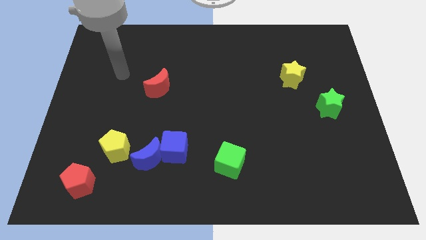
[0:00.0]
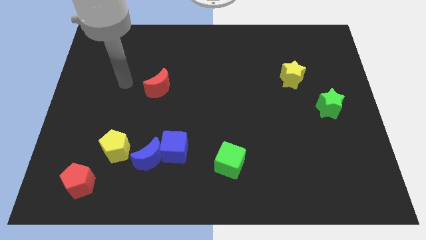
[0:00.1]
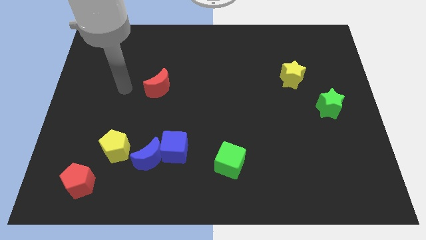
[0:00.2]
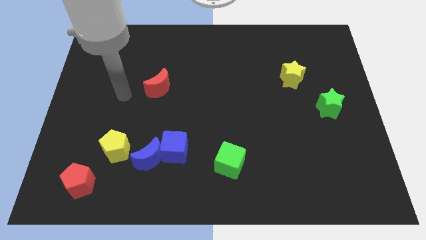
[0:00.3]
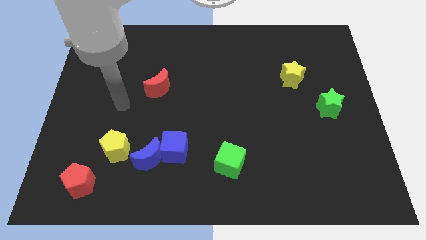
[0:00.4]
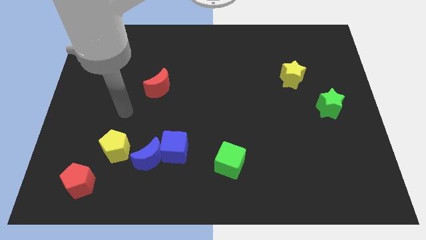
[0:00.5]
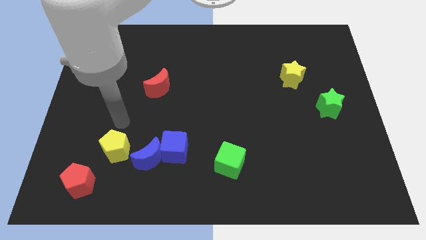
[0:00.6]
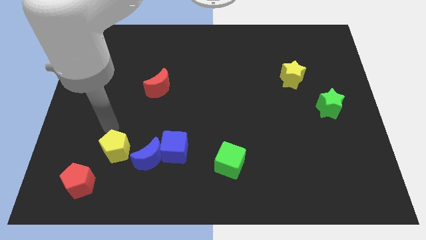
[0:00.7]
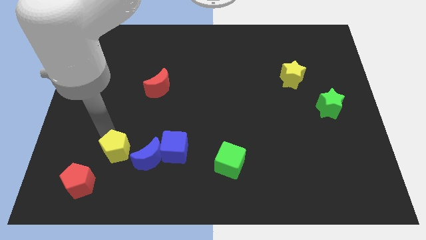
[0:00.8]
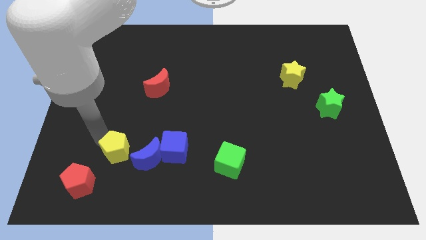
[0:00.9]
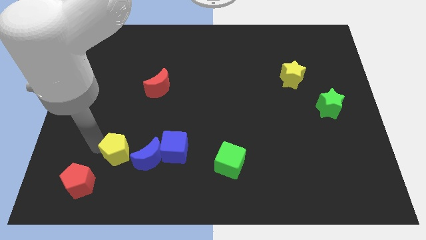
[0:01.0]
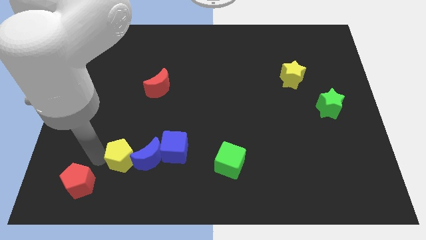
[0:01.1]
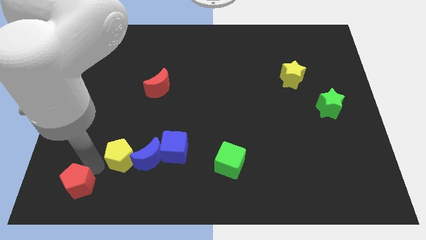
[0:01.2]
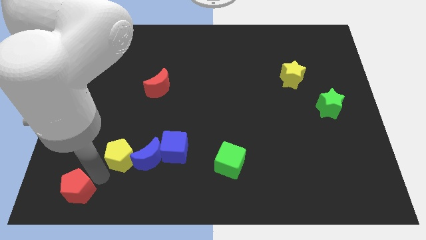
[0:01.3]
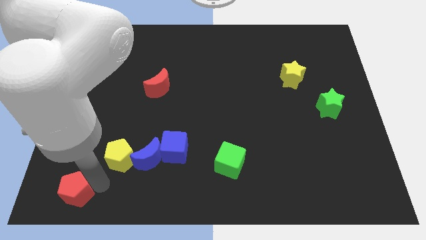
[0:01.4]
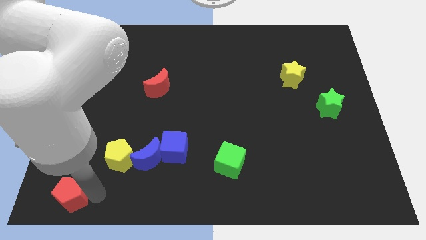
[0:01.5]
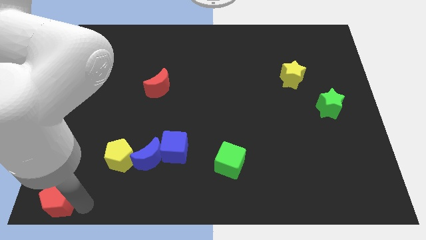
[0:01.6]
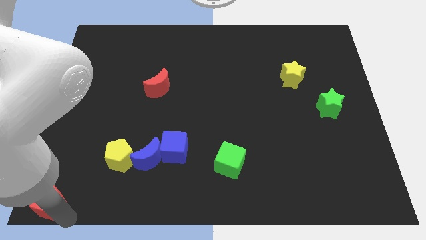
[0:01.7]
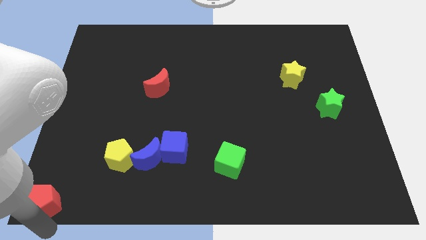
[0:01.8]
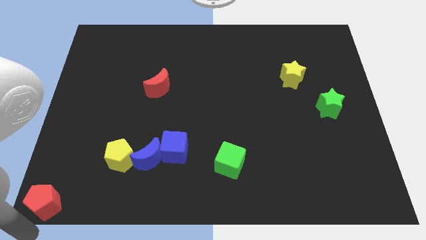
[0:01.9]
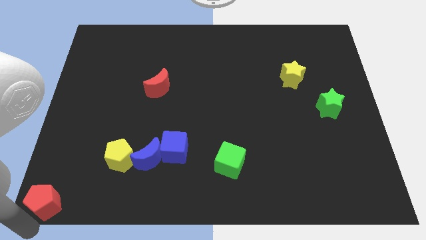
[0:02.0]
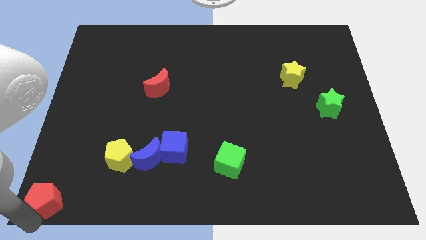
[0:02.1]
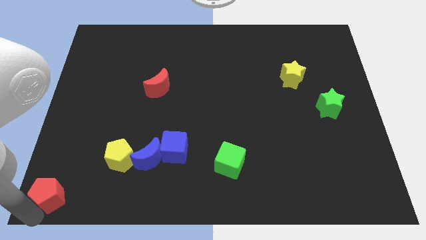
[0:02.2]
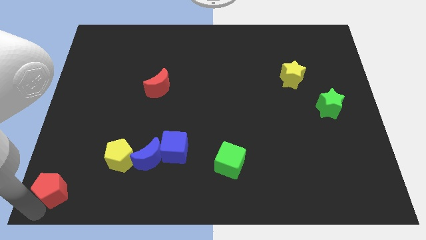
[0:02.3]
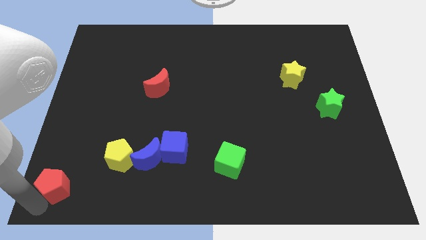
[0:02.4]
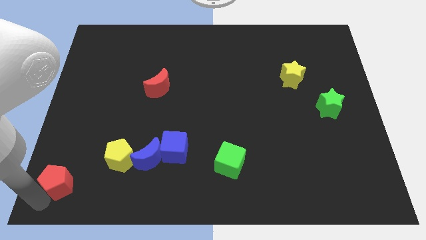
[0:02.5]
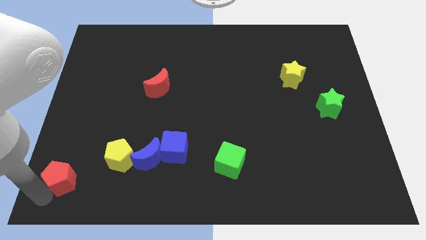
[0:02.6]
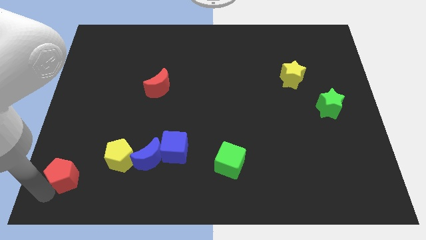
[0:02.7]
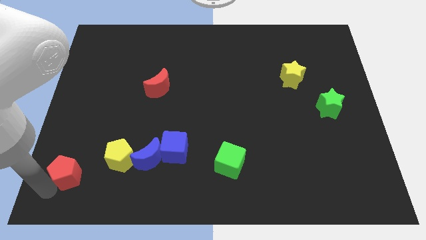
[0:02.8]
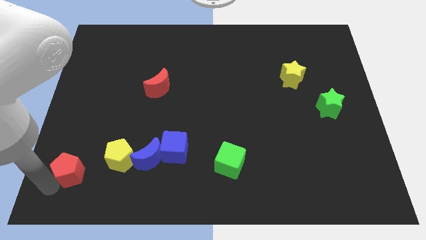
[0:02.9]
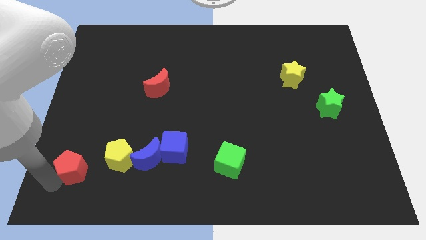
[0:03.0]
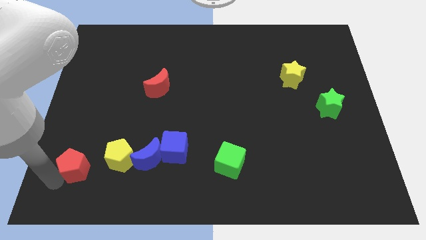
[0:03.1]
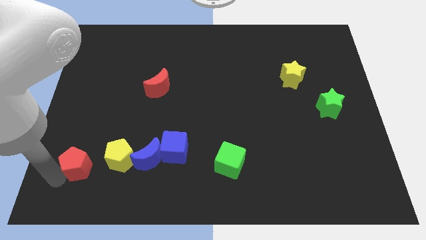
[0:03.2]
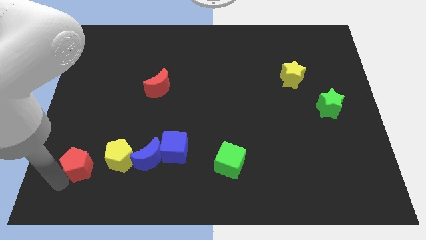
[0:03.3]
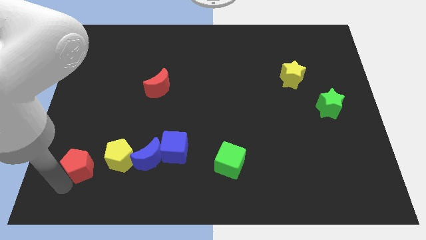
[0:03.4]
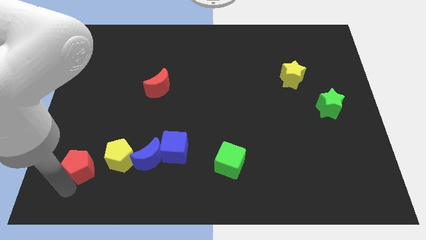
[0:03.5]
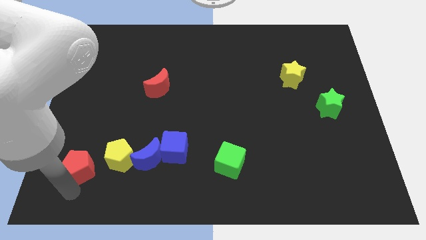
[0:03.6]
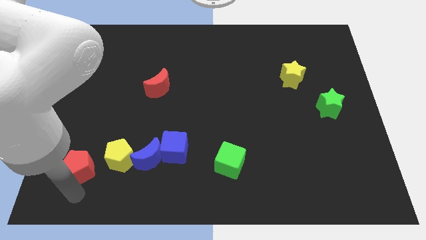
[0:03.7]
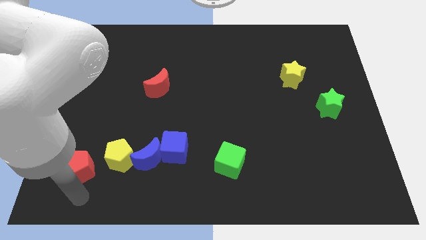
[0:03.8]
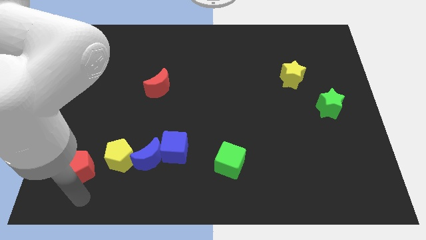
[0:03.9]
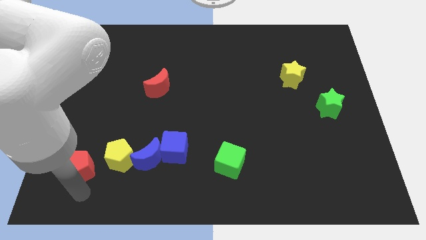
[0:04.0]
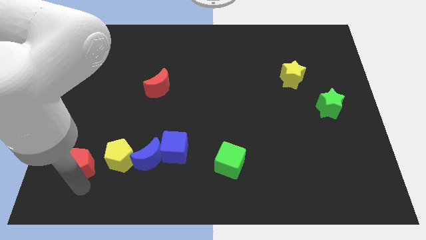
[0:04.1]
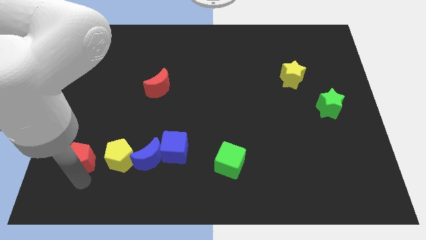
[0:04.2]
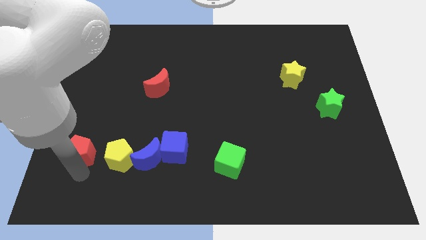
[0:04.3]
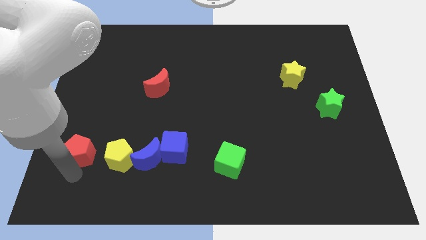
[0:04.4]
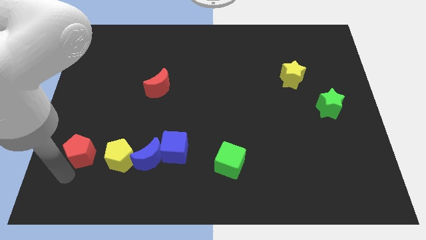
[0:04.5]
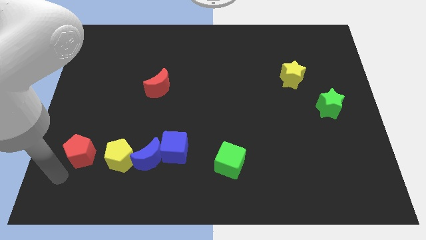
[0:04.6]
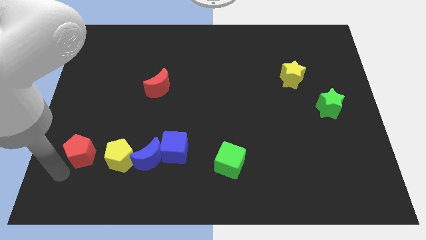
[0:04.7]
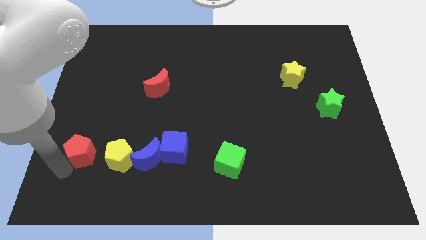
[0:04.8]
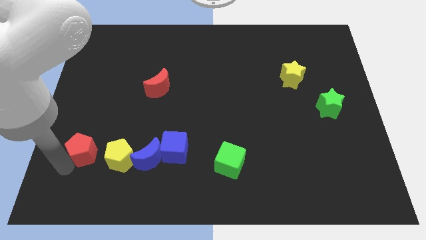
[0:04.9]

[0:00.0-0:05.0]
move the red pentagon diagonally up and to the left of the yellow pentagon

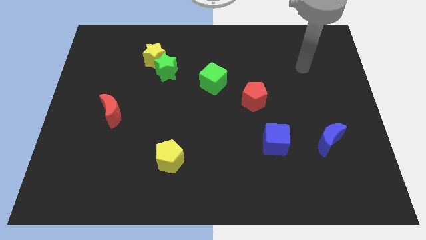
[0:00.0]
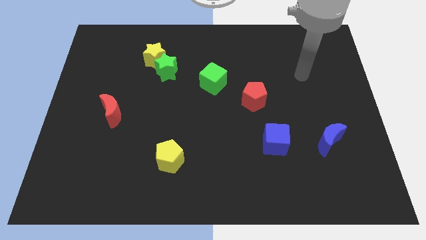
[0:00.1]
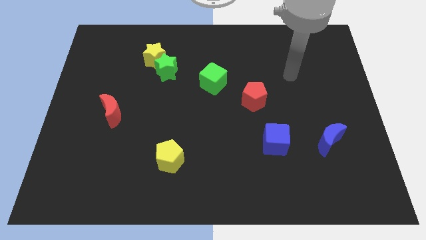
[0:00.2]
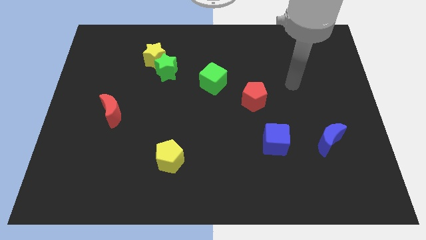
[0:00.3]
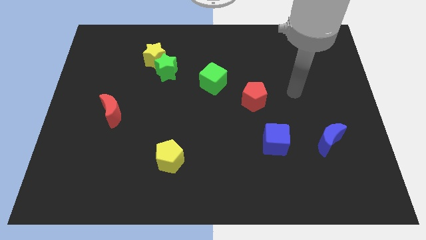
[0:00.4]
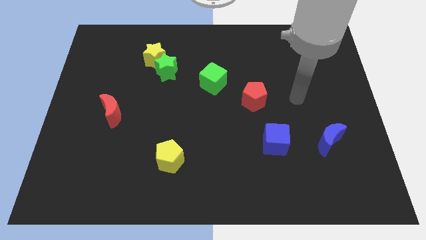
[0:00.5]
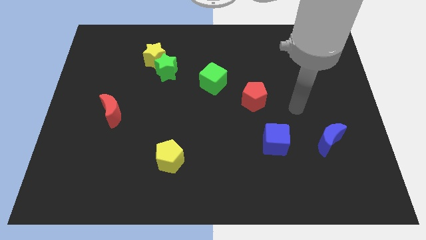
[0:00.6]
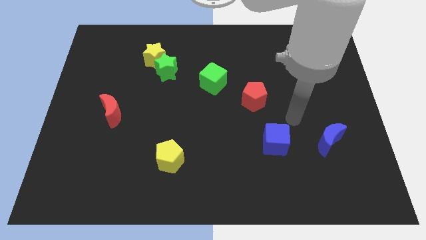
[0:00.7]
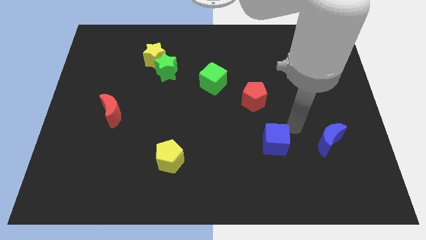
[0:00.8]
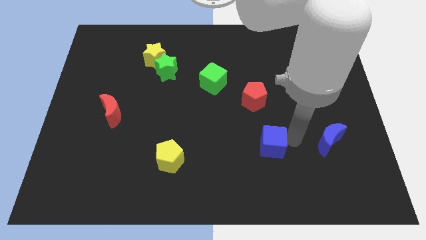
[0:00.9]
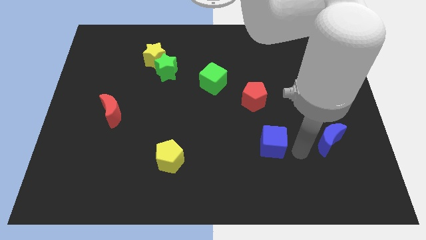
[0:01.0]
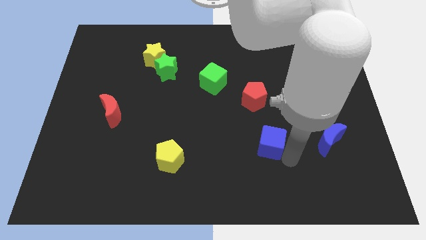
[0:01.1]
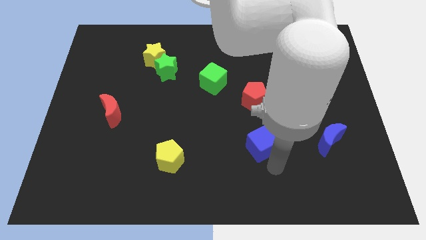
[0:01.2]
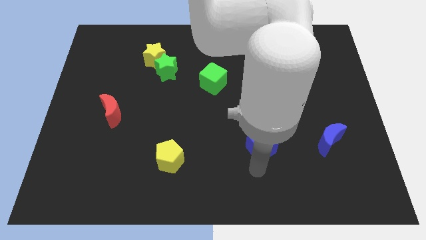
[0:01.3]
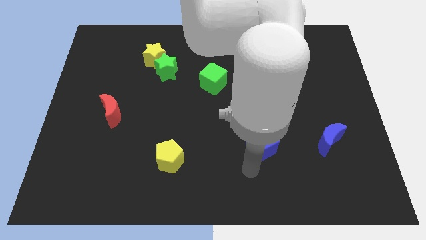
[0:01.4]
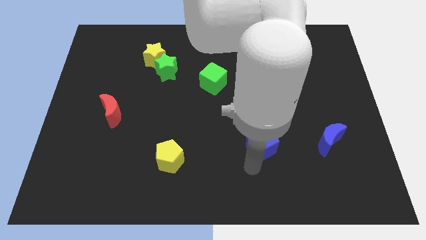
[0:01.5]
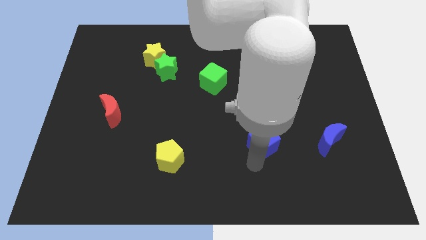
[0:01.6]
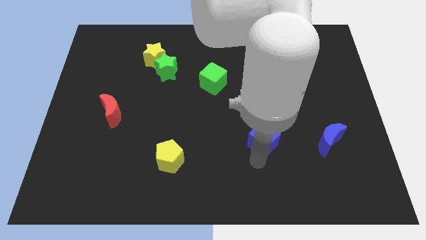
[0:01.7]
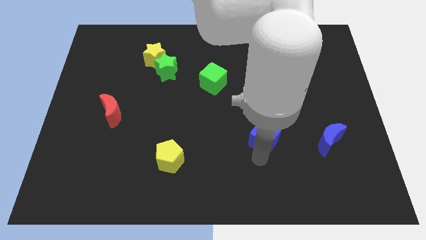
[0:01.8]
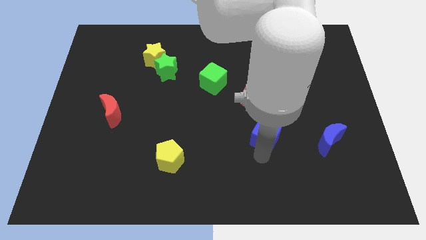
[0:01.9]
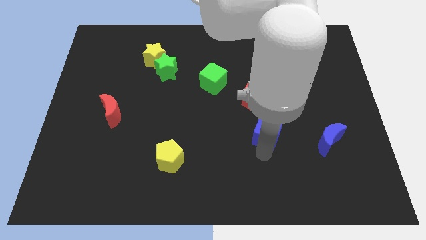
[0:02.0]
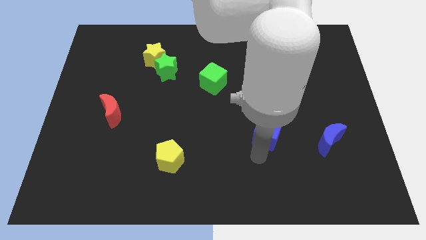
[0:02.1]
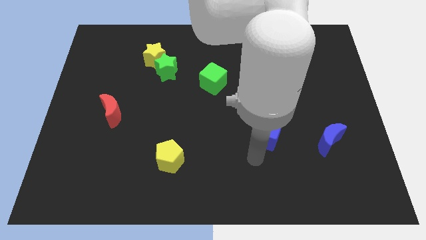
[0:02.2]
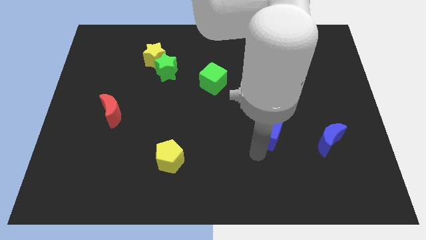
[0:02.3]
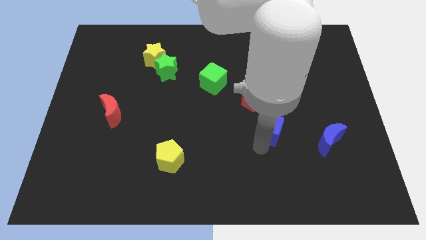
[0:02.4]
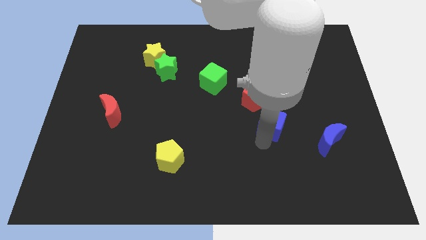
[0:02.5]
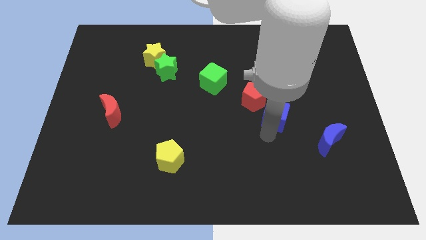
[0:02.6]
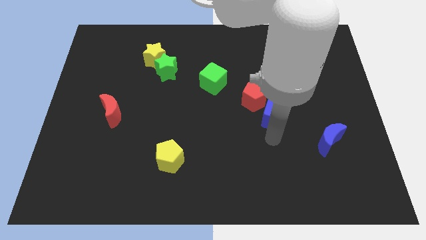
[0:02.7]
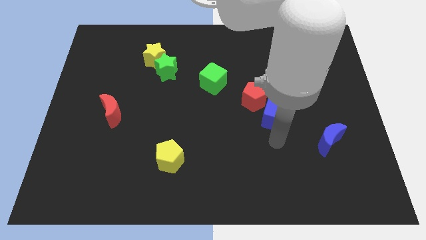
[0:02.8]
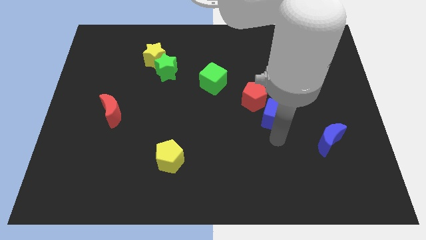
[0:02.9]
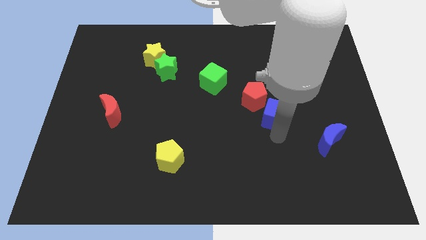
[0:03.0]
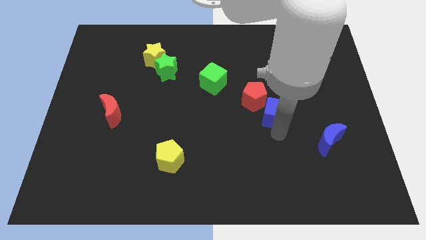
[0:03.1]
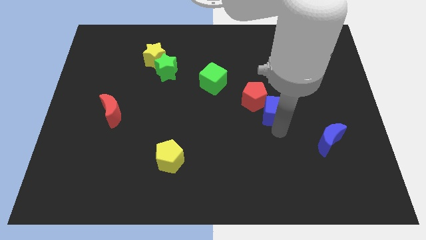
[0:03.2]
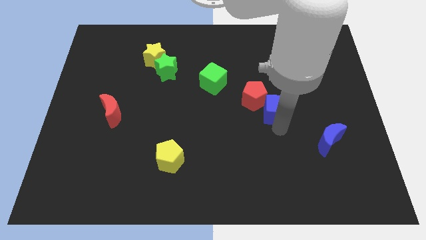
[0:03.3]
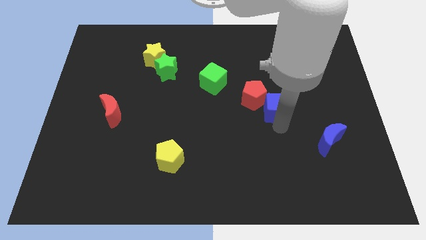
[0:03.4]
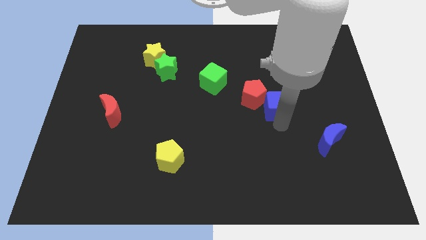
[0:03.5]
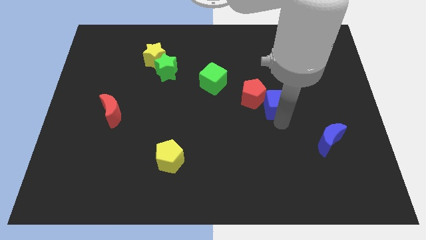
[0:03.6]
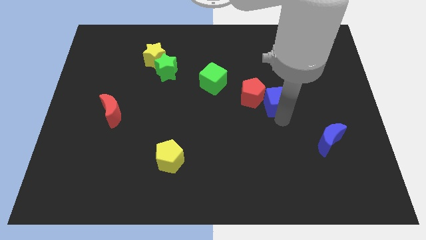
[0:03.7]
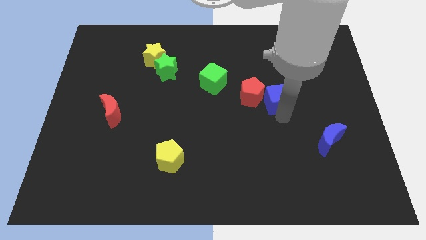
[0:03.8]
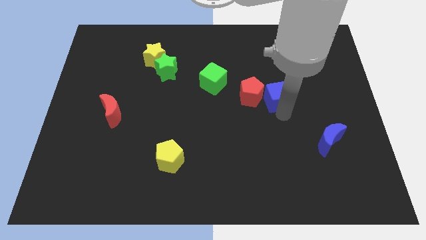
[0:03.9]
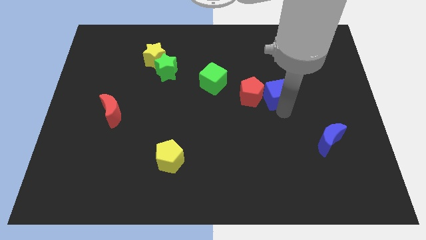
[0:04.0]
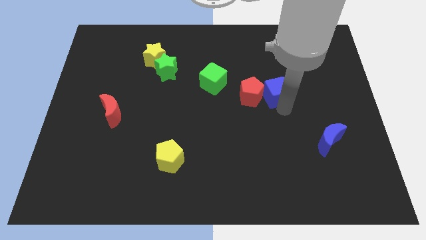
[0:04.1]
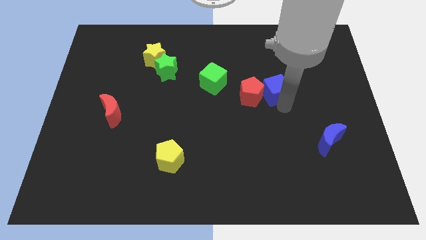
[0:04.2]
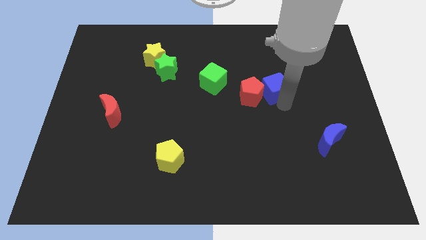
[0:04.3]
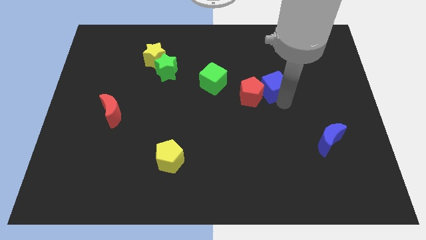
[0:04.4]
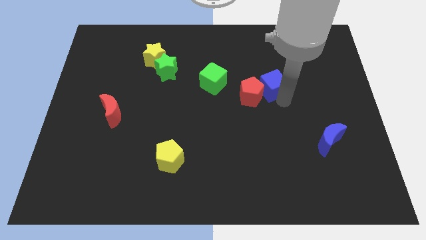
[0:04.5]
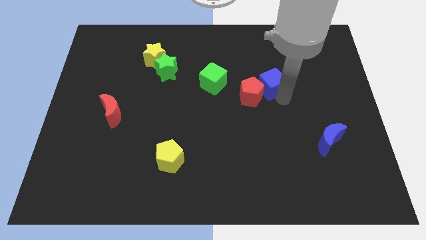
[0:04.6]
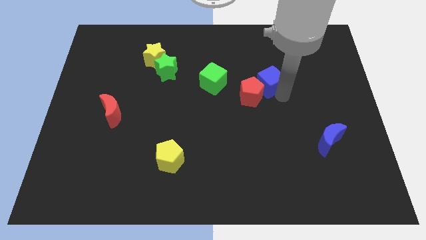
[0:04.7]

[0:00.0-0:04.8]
slide the blue cube to the top side of the red pentagon
